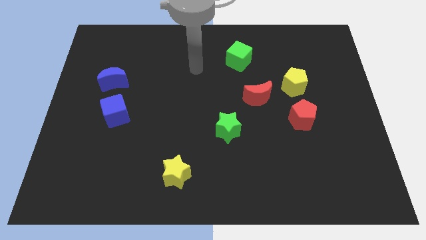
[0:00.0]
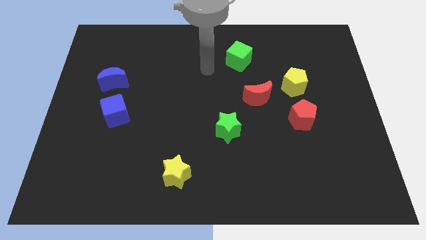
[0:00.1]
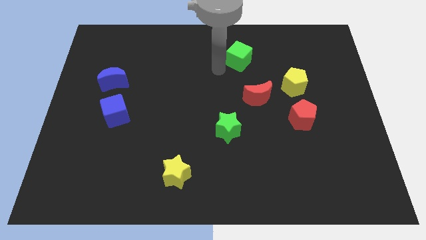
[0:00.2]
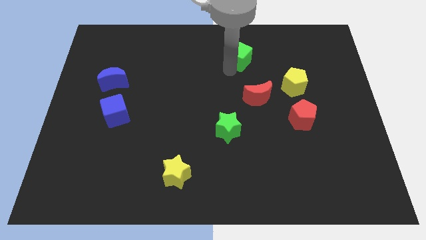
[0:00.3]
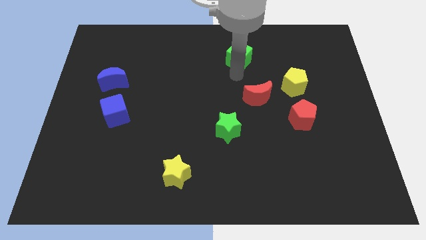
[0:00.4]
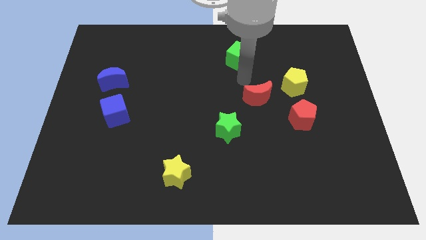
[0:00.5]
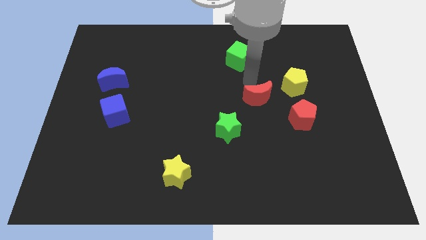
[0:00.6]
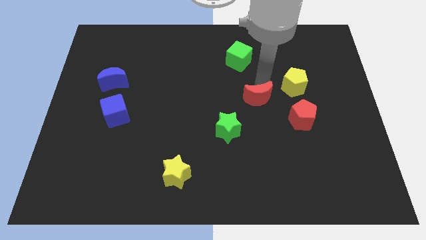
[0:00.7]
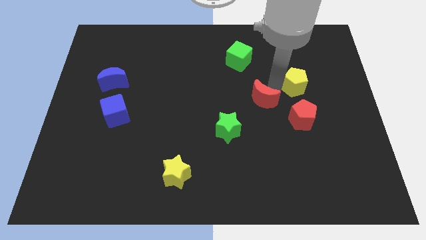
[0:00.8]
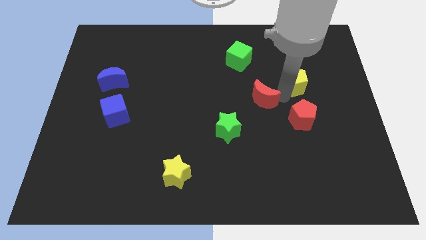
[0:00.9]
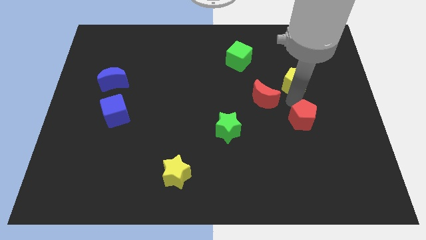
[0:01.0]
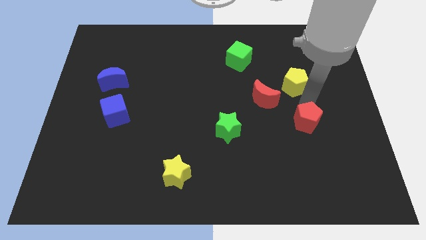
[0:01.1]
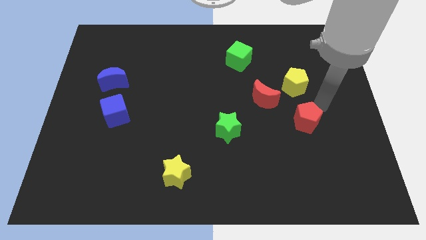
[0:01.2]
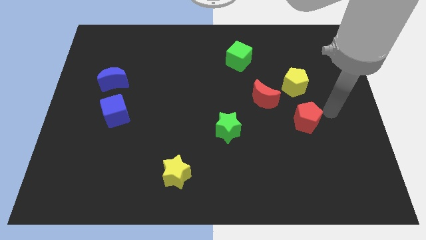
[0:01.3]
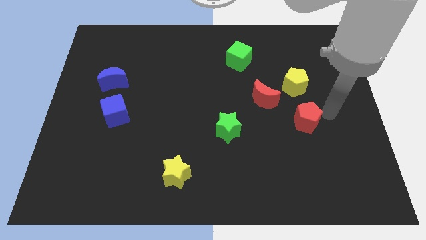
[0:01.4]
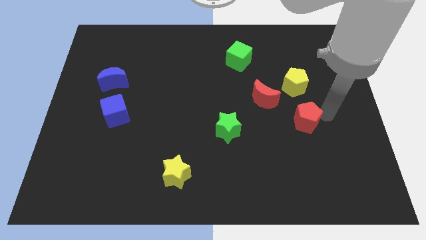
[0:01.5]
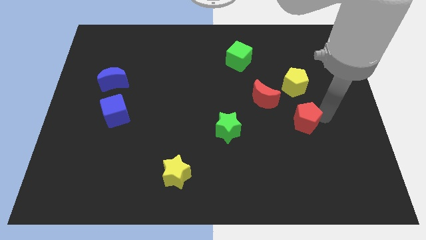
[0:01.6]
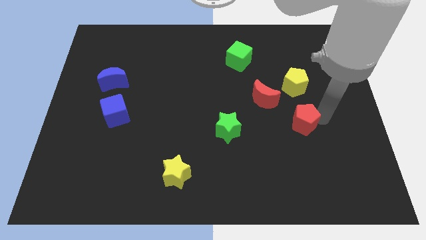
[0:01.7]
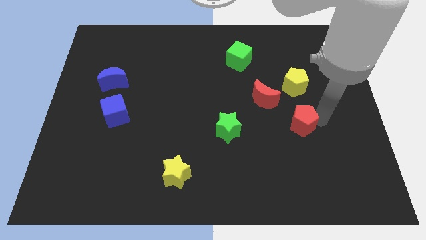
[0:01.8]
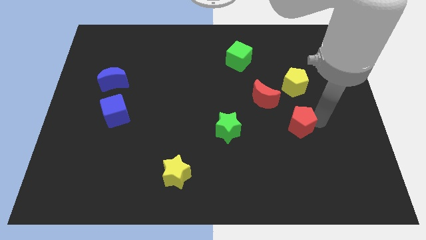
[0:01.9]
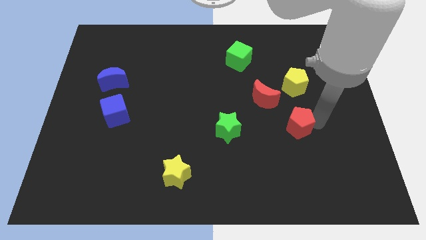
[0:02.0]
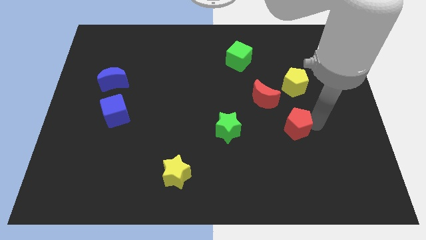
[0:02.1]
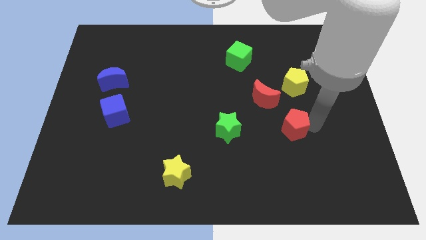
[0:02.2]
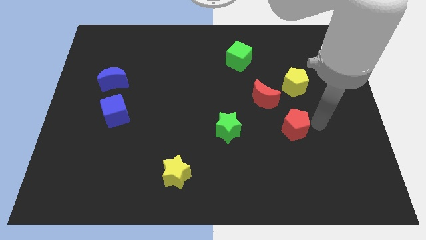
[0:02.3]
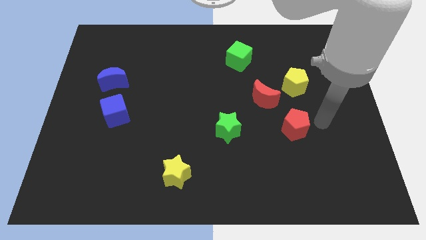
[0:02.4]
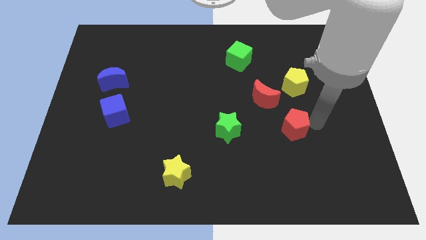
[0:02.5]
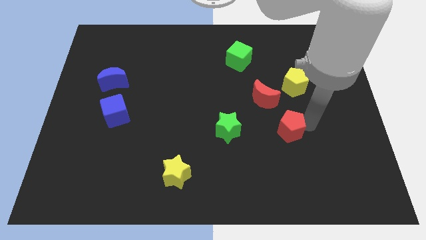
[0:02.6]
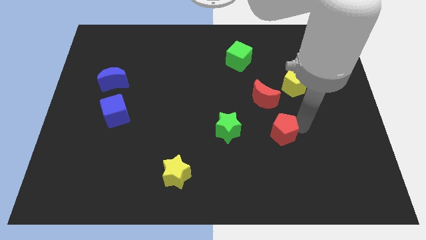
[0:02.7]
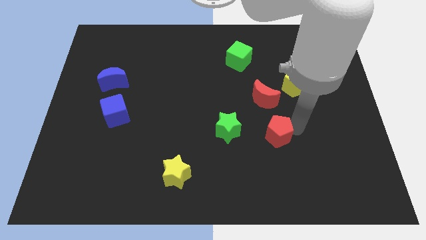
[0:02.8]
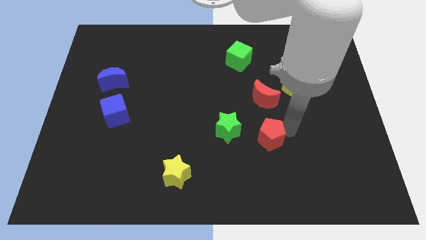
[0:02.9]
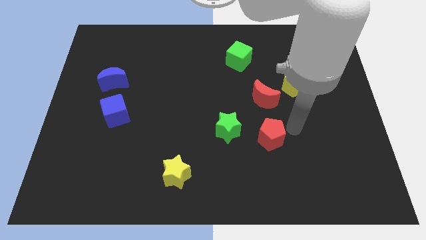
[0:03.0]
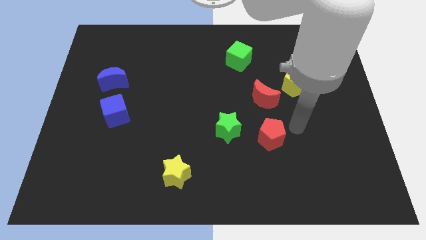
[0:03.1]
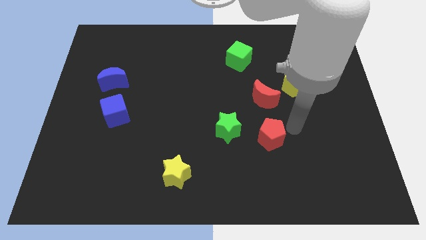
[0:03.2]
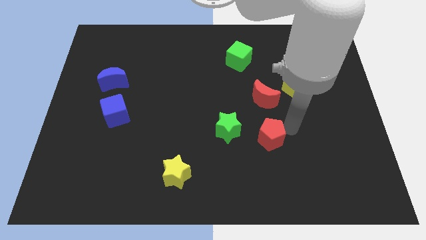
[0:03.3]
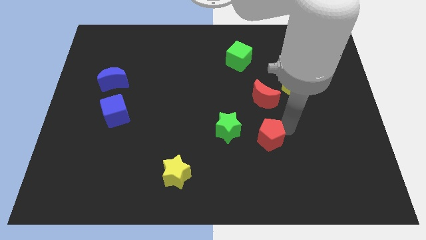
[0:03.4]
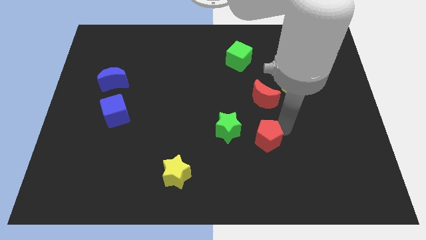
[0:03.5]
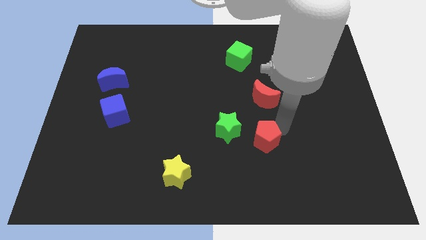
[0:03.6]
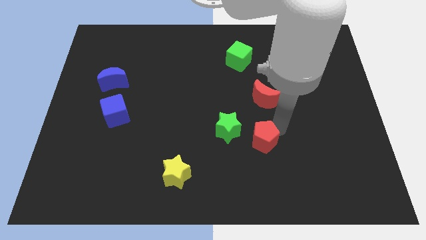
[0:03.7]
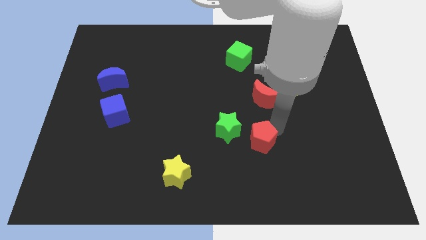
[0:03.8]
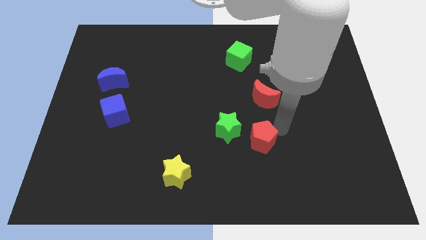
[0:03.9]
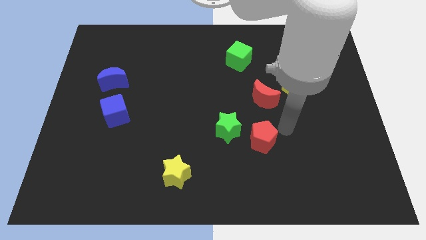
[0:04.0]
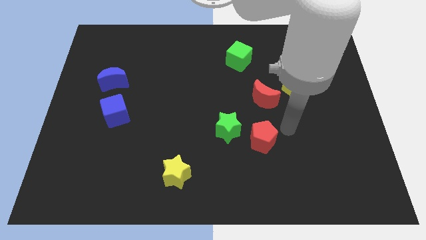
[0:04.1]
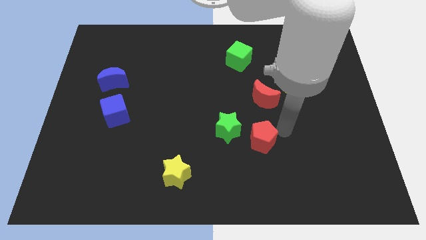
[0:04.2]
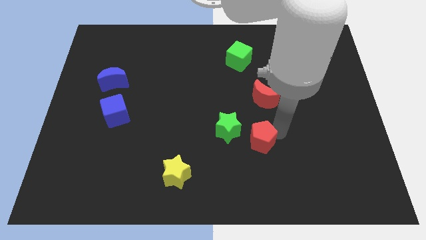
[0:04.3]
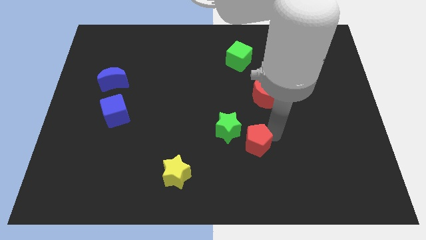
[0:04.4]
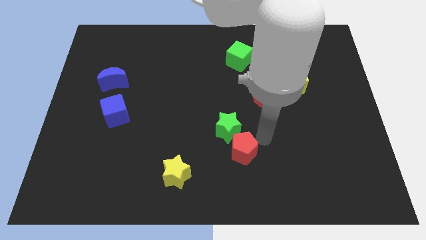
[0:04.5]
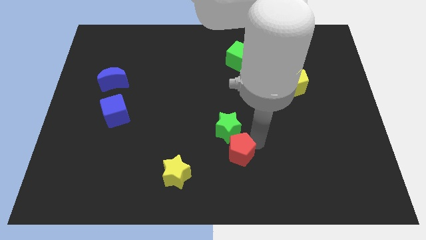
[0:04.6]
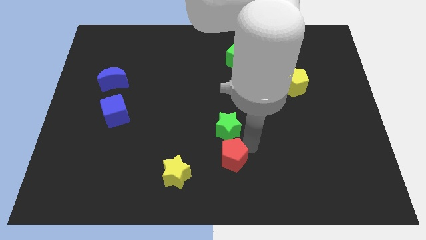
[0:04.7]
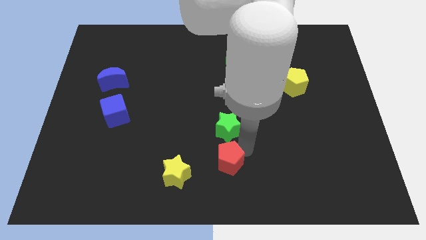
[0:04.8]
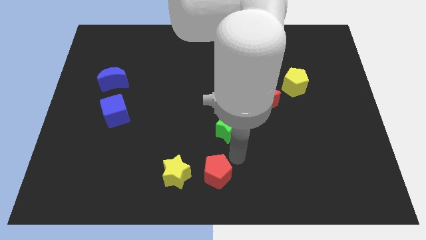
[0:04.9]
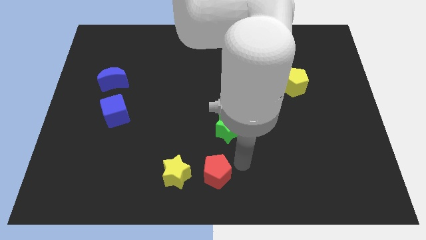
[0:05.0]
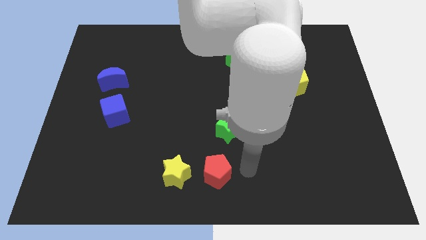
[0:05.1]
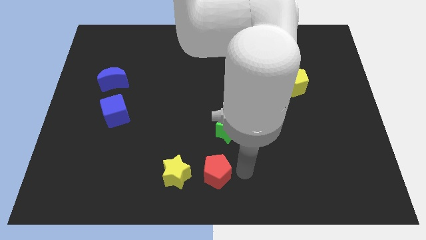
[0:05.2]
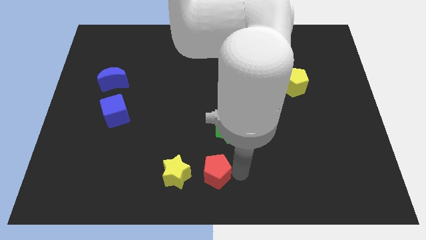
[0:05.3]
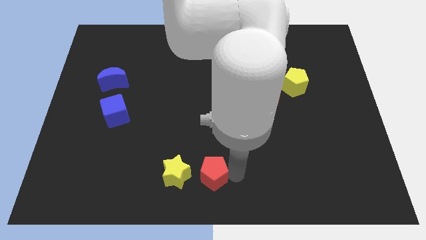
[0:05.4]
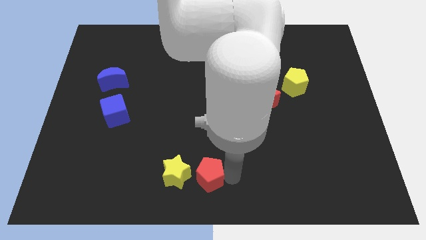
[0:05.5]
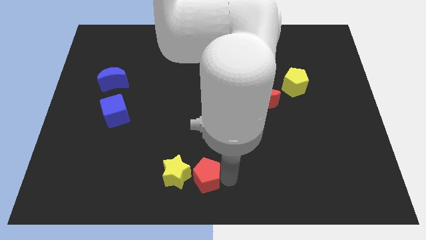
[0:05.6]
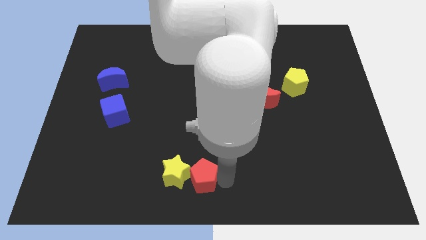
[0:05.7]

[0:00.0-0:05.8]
push the red pentagon close to the yellow star

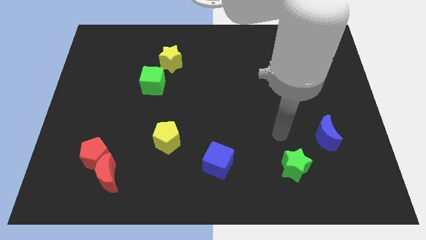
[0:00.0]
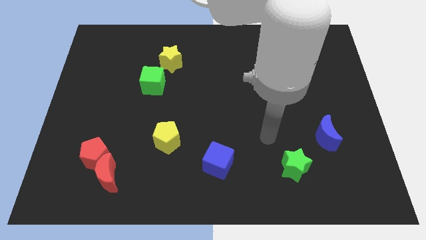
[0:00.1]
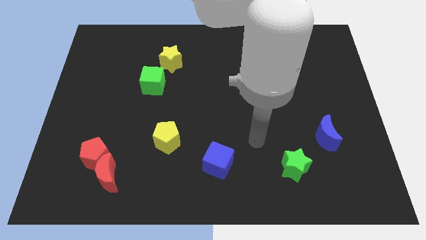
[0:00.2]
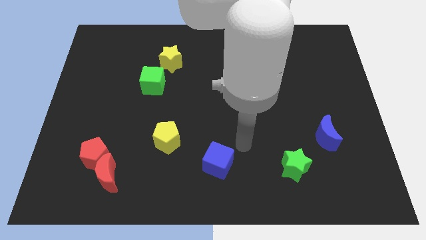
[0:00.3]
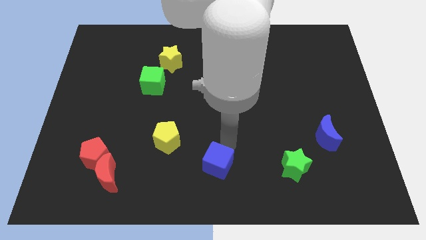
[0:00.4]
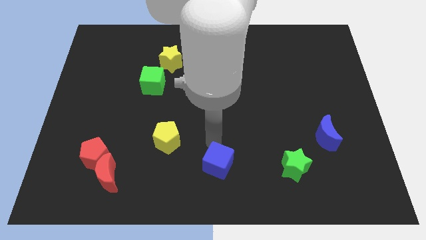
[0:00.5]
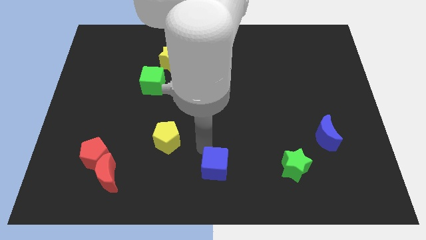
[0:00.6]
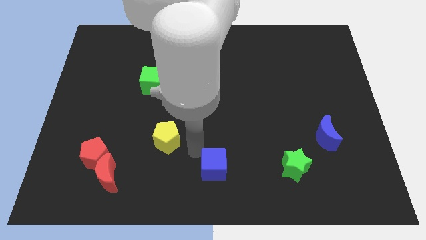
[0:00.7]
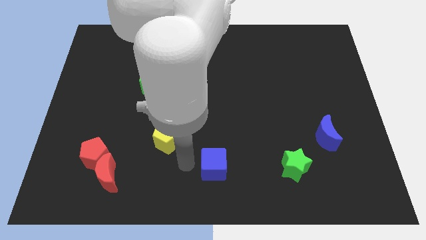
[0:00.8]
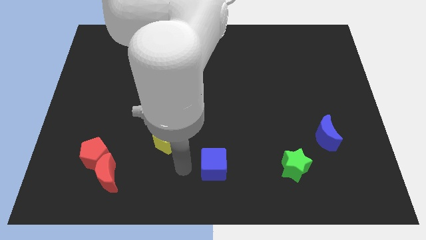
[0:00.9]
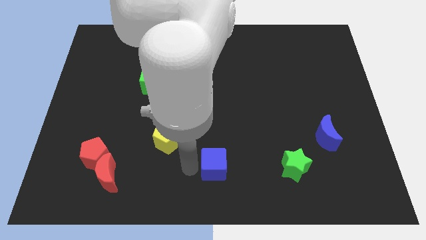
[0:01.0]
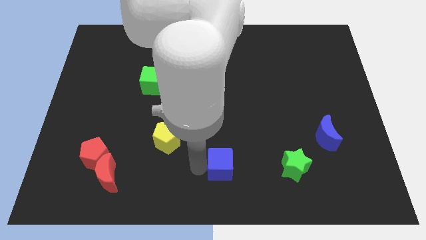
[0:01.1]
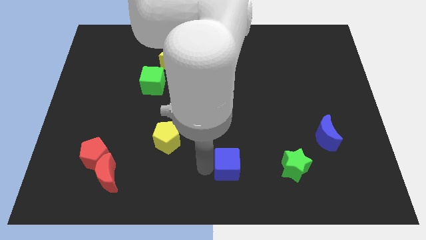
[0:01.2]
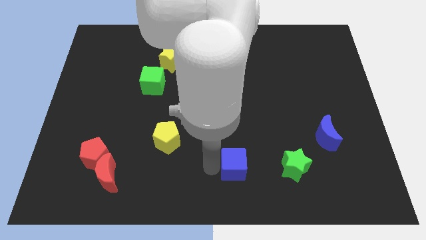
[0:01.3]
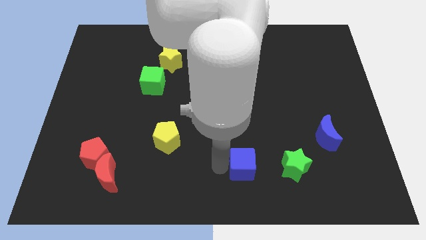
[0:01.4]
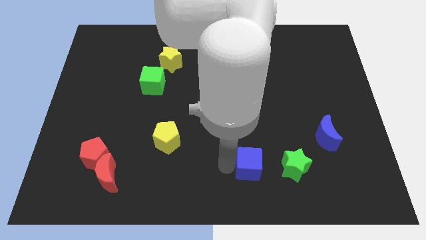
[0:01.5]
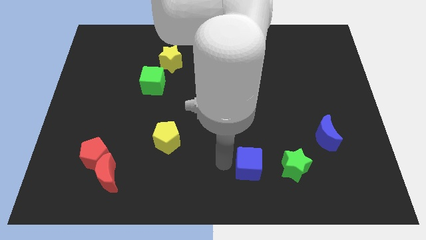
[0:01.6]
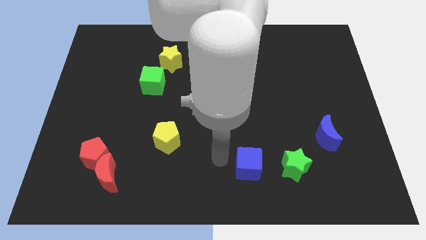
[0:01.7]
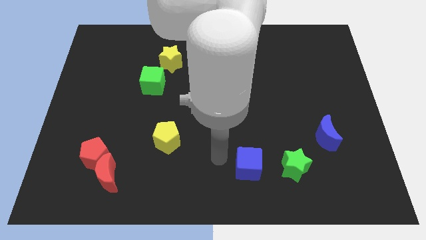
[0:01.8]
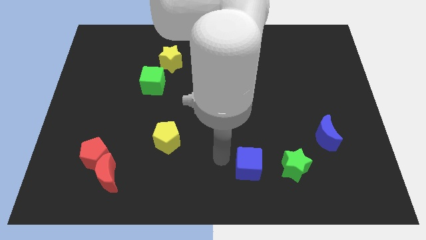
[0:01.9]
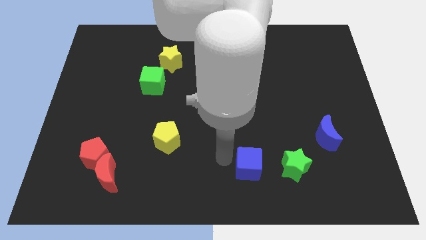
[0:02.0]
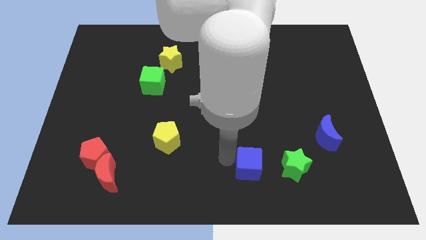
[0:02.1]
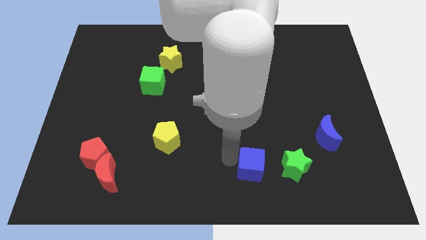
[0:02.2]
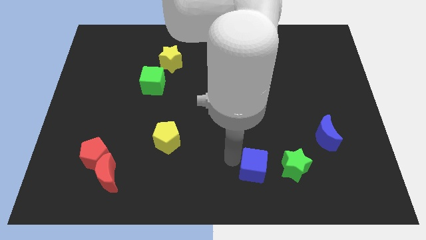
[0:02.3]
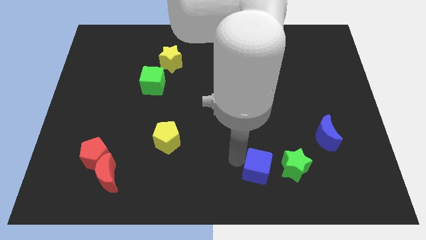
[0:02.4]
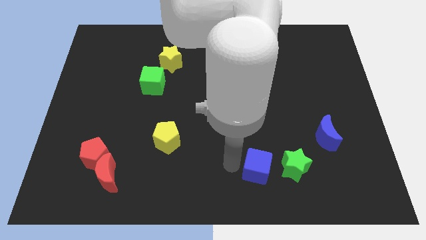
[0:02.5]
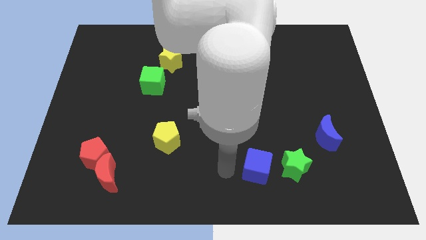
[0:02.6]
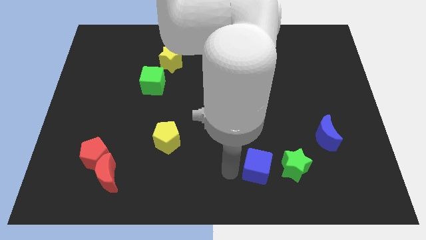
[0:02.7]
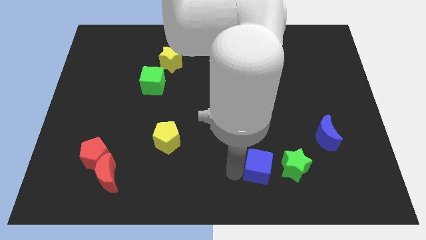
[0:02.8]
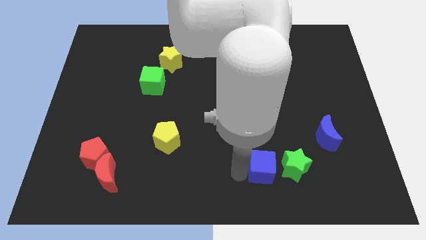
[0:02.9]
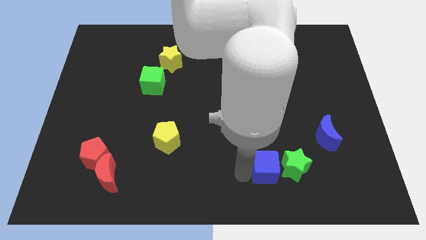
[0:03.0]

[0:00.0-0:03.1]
slide the blue cube close to the green star
